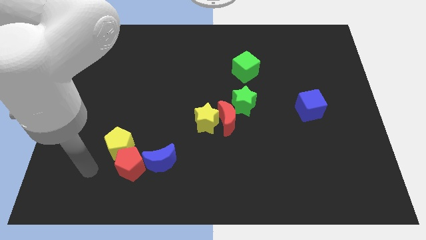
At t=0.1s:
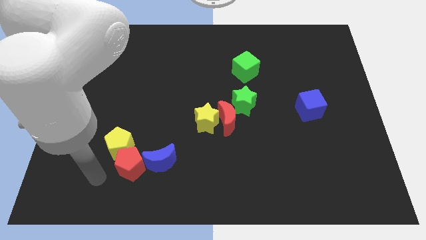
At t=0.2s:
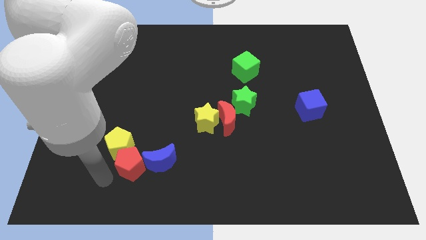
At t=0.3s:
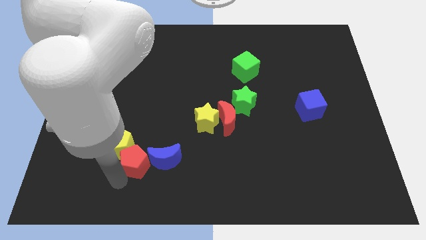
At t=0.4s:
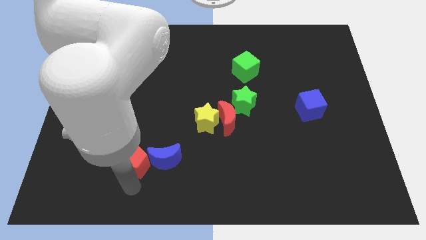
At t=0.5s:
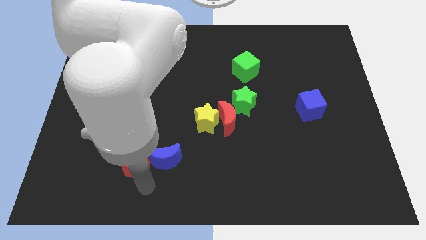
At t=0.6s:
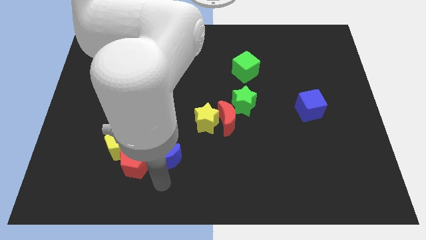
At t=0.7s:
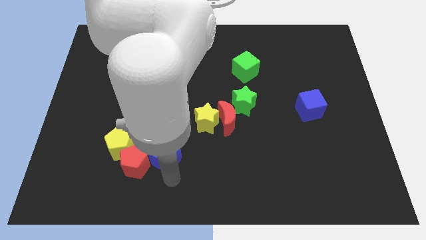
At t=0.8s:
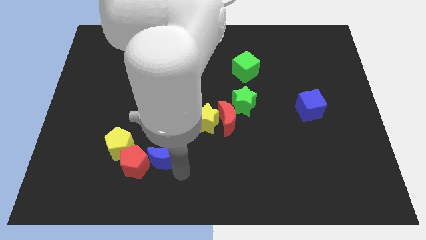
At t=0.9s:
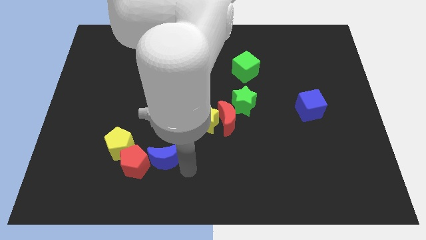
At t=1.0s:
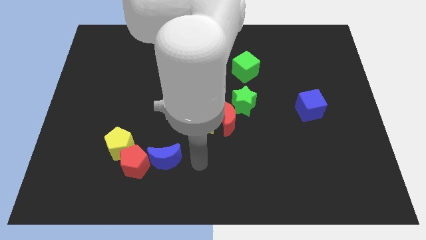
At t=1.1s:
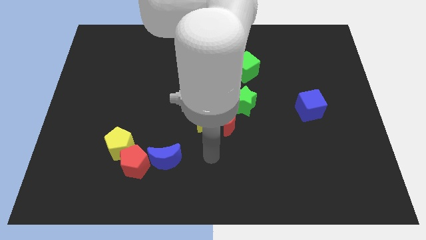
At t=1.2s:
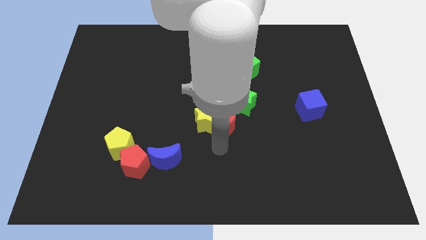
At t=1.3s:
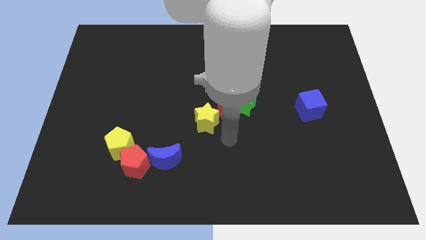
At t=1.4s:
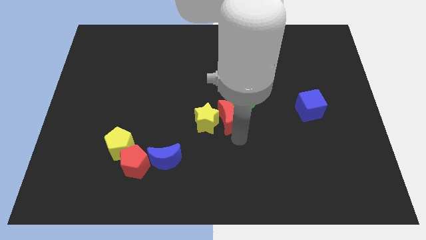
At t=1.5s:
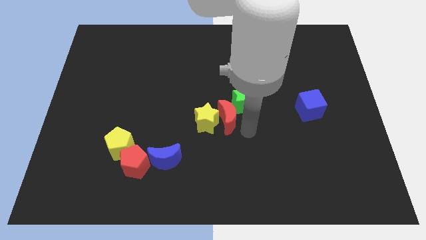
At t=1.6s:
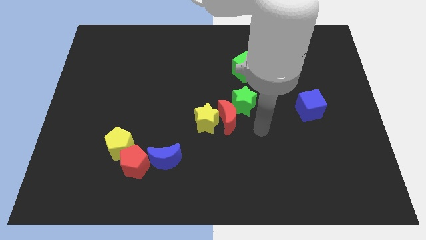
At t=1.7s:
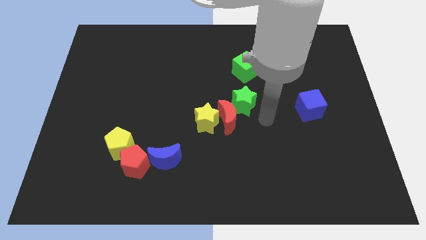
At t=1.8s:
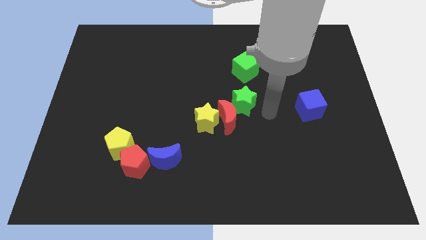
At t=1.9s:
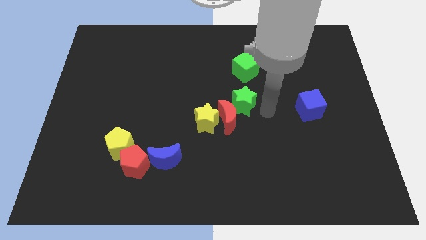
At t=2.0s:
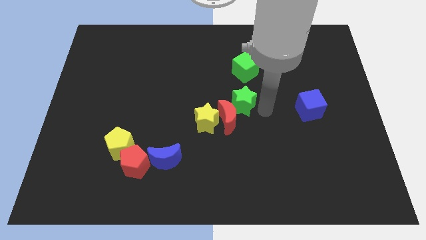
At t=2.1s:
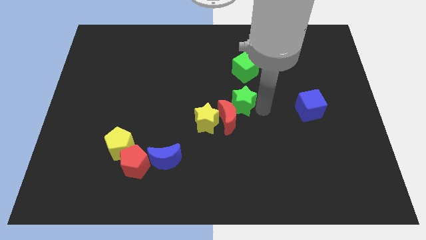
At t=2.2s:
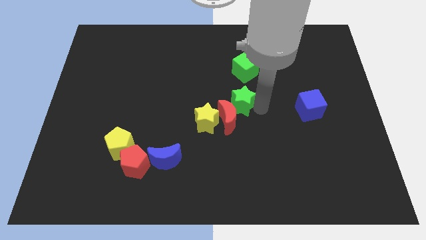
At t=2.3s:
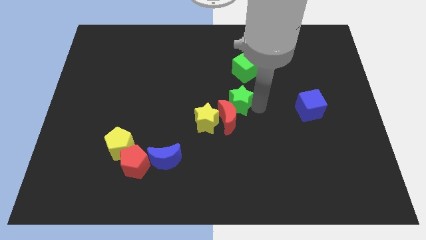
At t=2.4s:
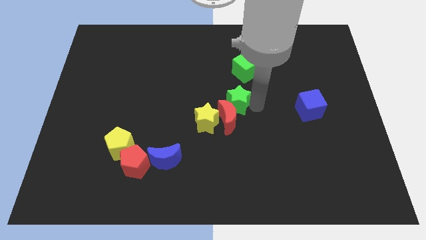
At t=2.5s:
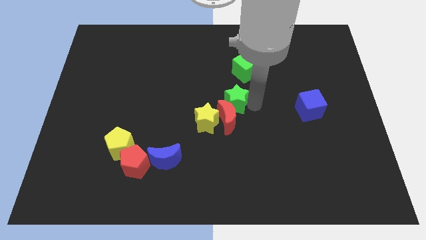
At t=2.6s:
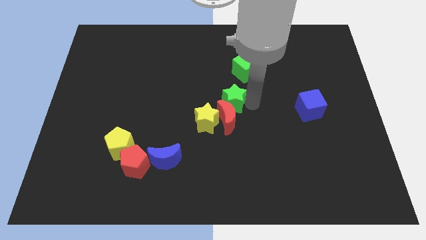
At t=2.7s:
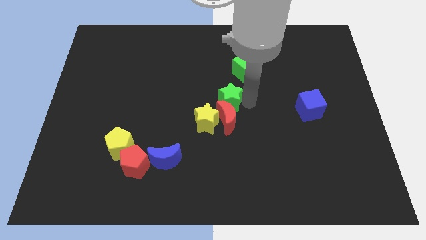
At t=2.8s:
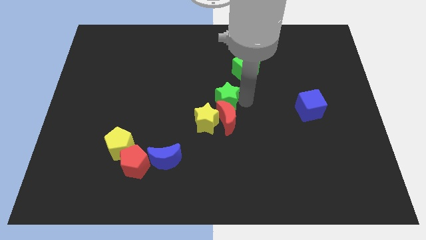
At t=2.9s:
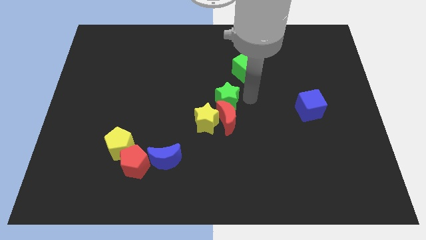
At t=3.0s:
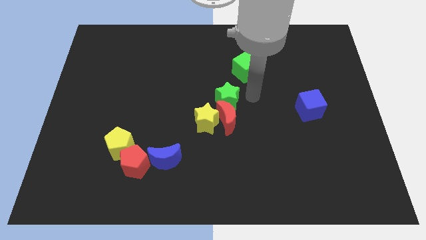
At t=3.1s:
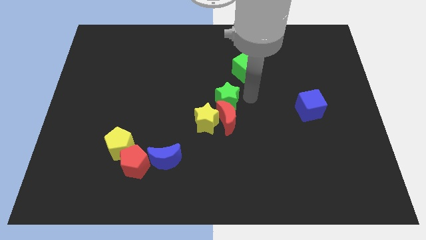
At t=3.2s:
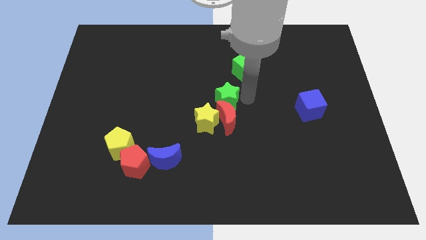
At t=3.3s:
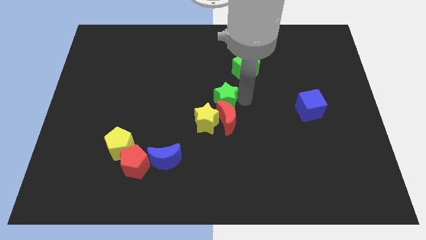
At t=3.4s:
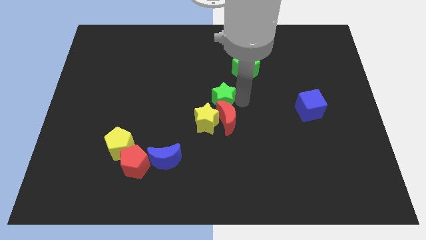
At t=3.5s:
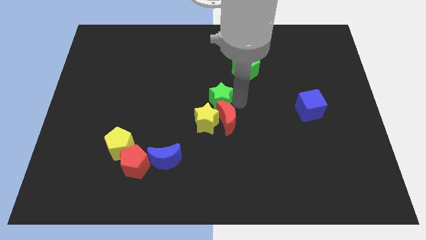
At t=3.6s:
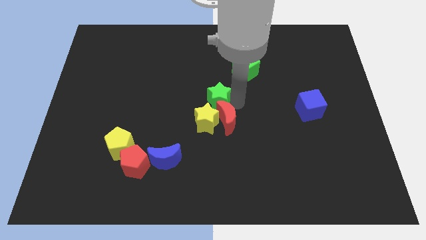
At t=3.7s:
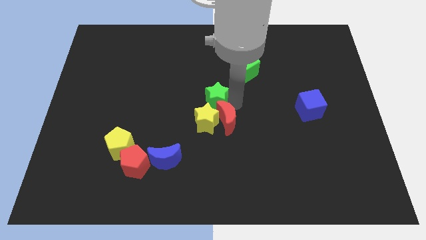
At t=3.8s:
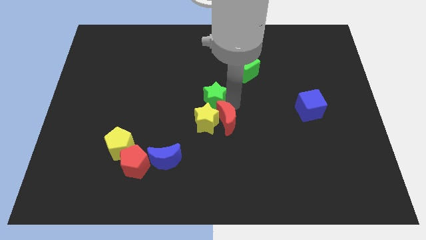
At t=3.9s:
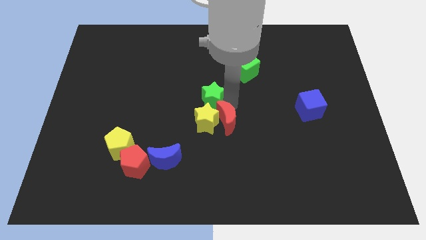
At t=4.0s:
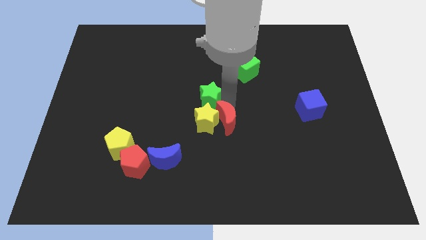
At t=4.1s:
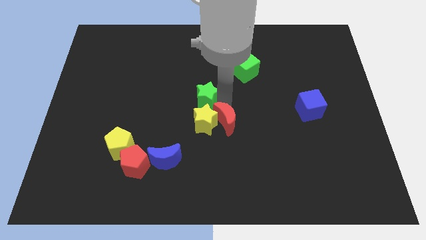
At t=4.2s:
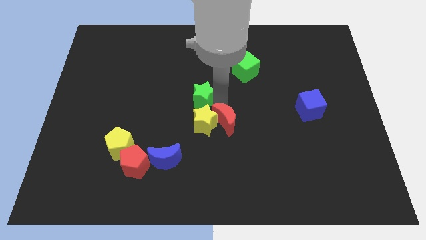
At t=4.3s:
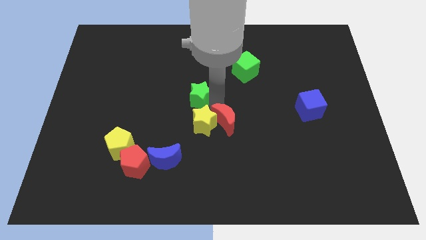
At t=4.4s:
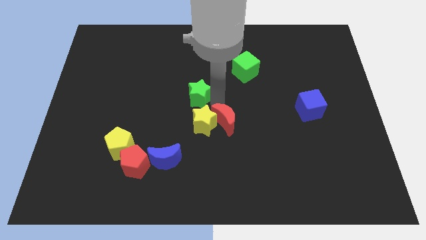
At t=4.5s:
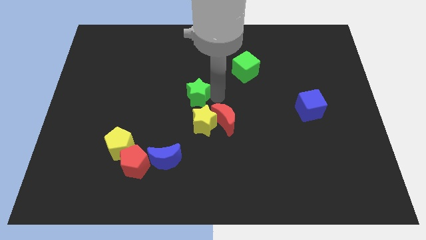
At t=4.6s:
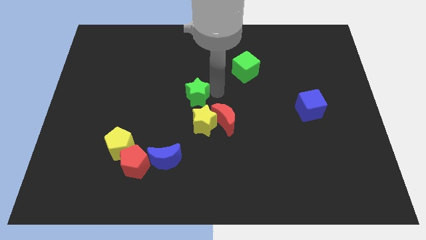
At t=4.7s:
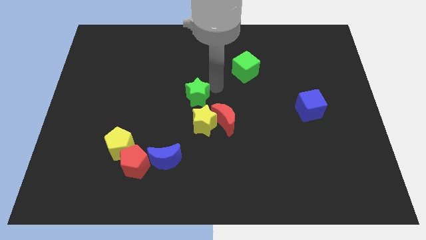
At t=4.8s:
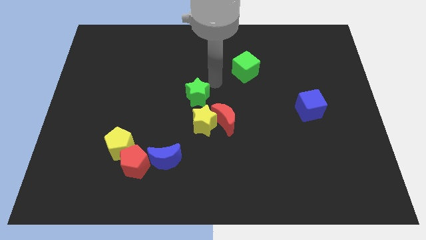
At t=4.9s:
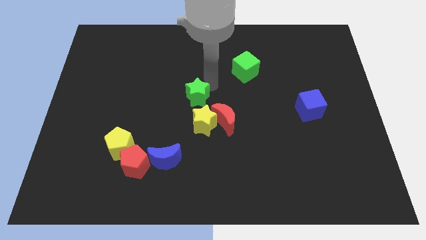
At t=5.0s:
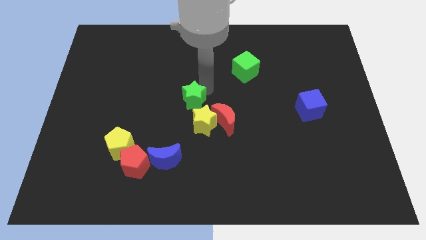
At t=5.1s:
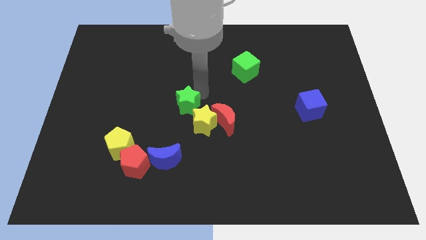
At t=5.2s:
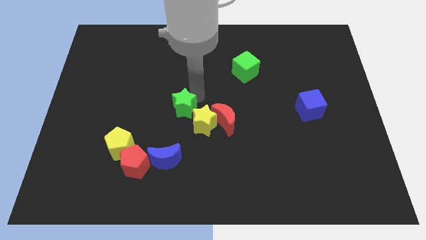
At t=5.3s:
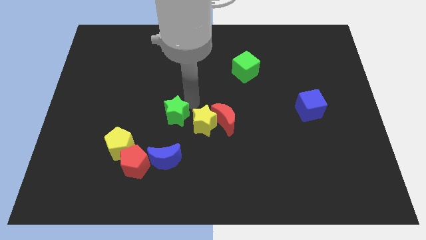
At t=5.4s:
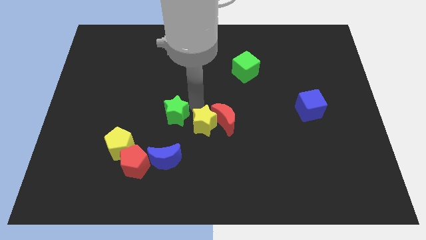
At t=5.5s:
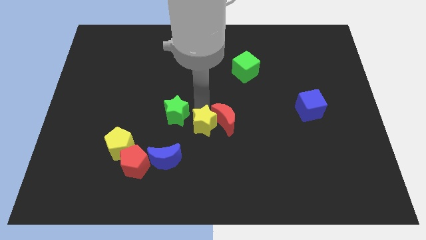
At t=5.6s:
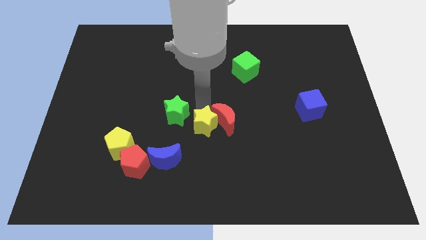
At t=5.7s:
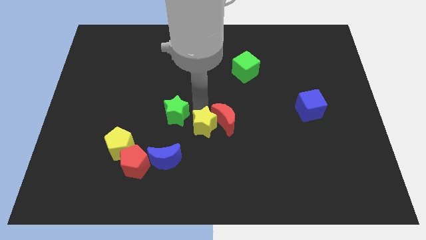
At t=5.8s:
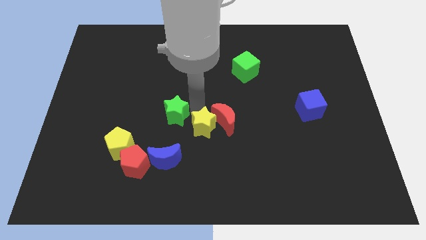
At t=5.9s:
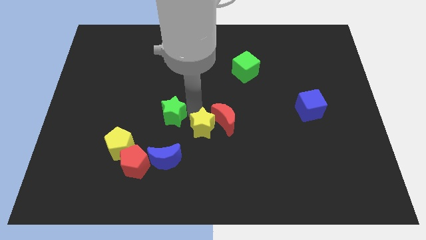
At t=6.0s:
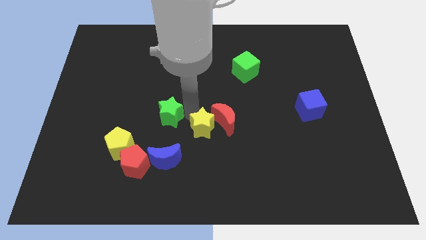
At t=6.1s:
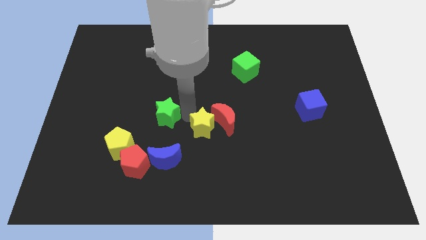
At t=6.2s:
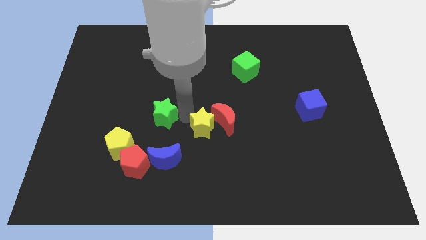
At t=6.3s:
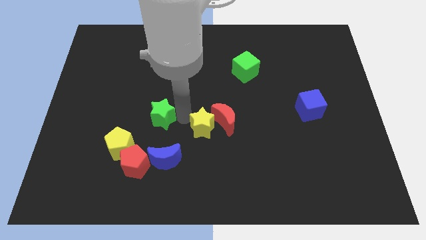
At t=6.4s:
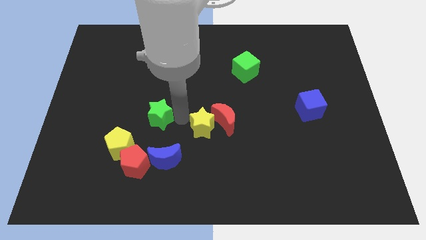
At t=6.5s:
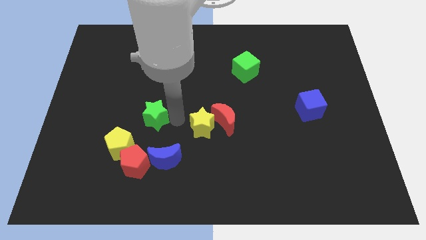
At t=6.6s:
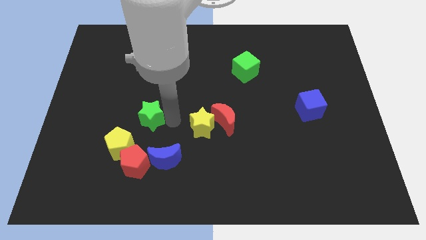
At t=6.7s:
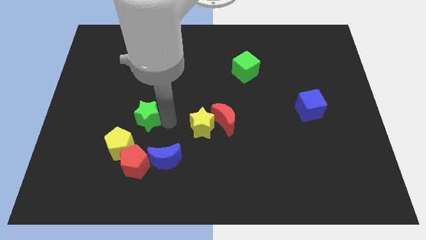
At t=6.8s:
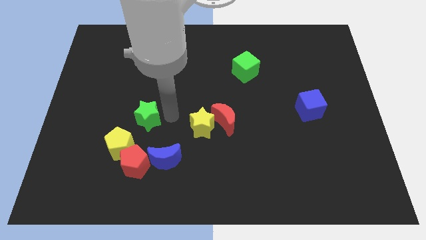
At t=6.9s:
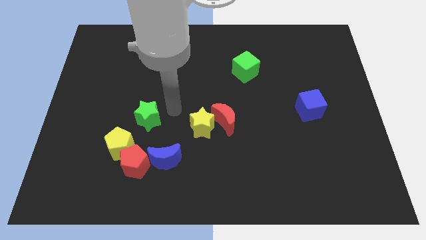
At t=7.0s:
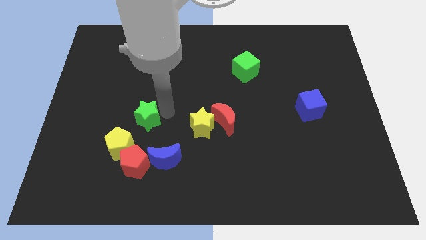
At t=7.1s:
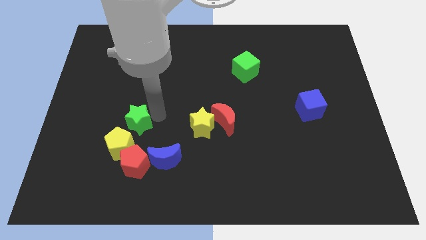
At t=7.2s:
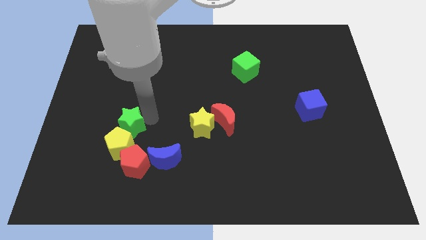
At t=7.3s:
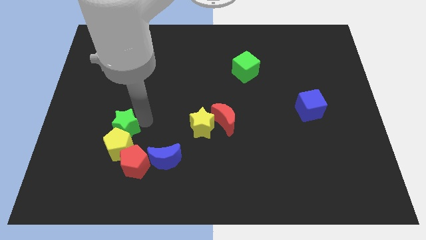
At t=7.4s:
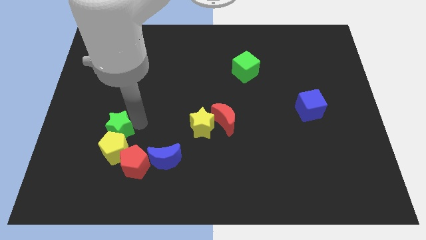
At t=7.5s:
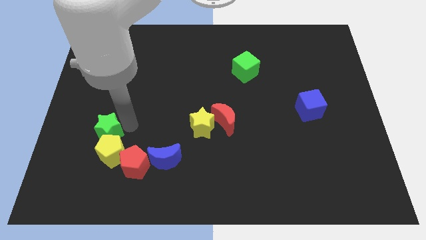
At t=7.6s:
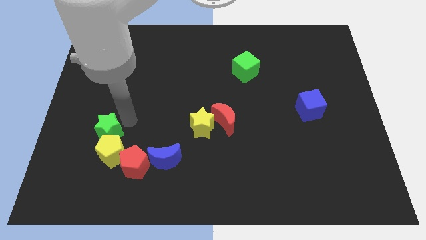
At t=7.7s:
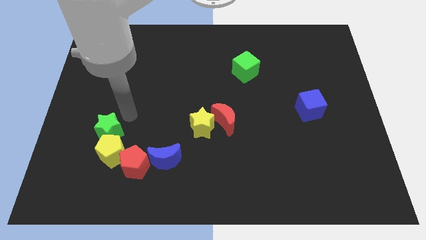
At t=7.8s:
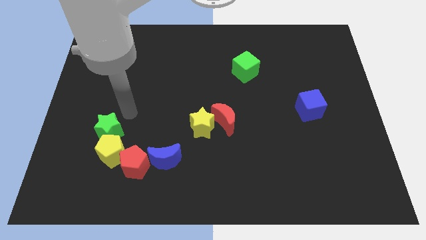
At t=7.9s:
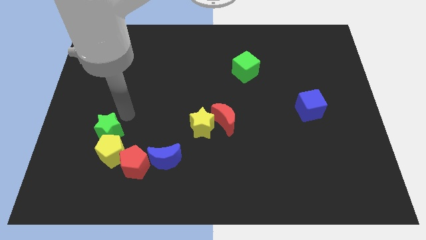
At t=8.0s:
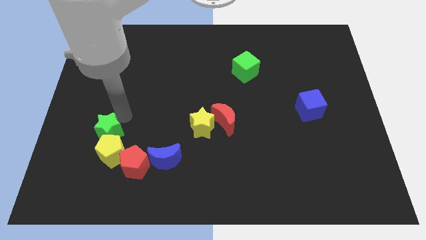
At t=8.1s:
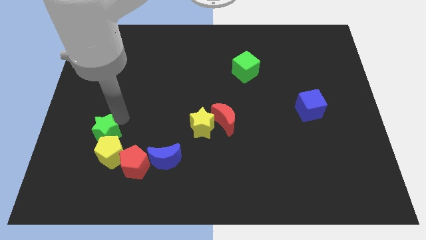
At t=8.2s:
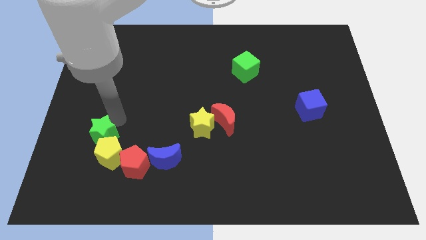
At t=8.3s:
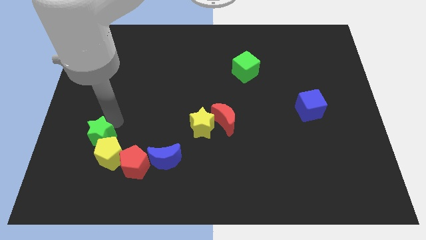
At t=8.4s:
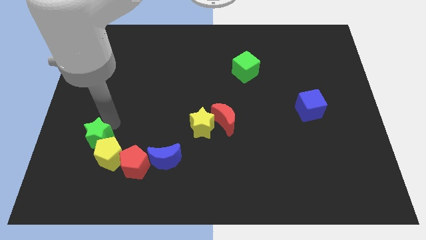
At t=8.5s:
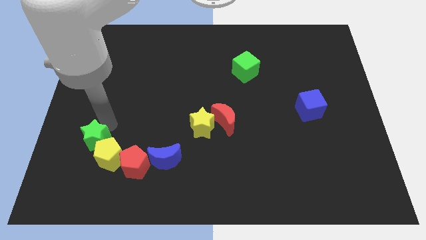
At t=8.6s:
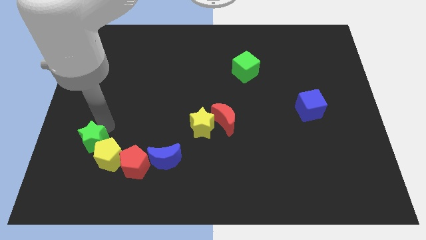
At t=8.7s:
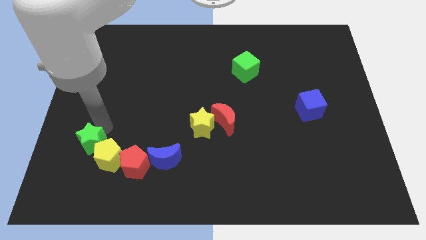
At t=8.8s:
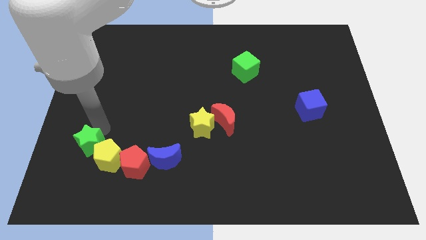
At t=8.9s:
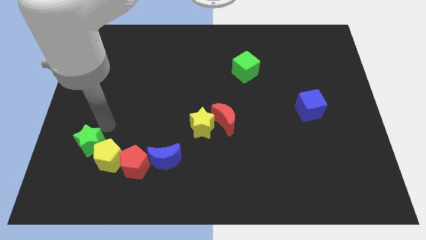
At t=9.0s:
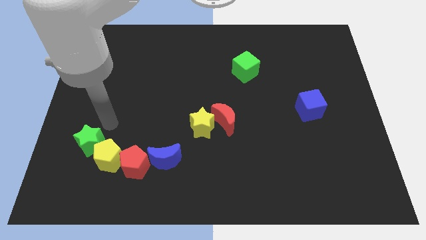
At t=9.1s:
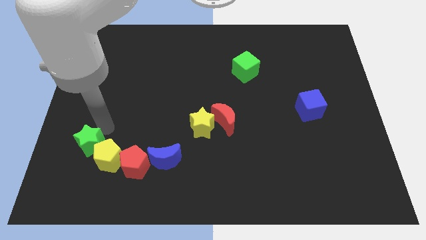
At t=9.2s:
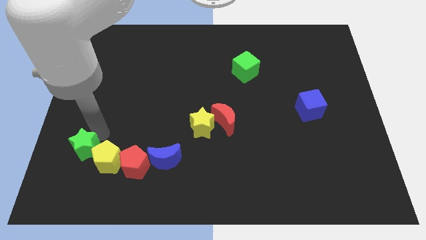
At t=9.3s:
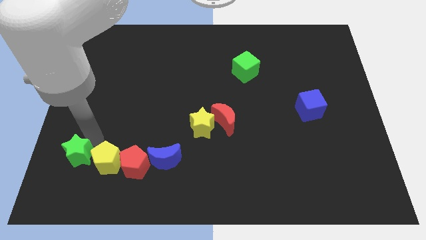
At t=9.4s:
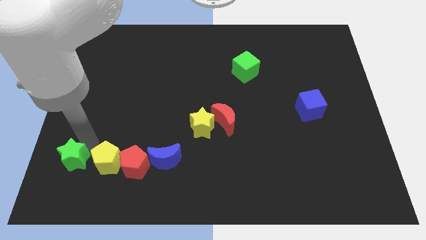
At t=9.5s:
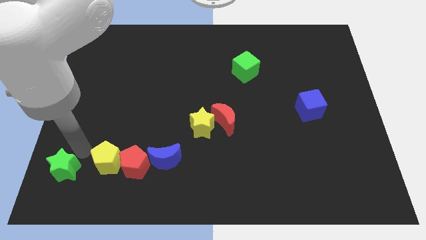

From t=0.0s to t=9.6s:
push the green star to the bottom left of the board
